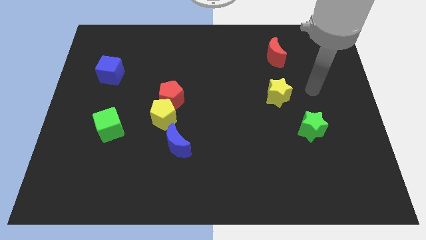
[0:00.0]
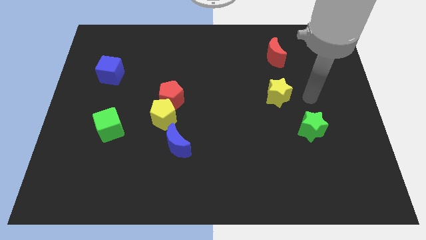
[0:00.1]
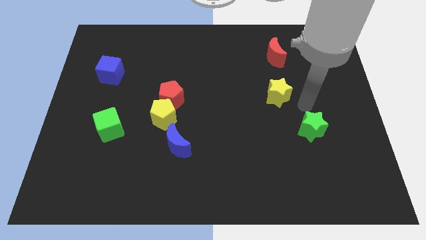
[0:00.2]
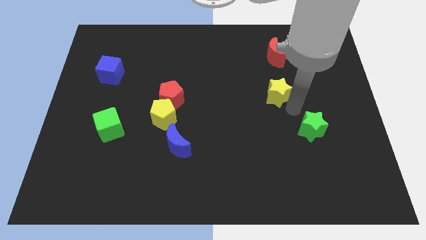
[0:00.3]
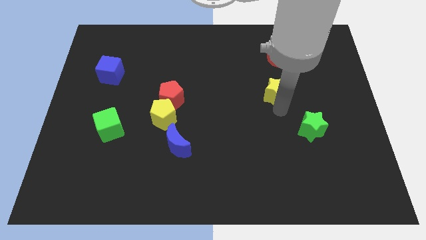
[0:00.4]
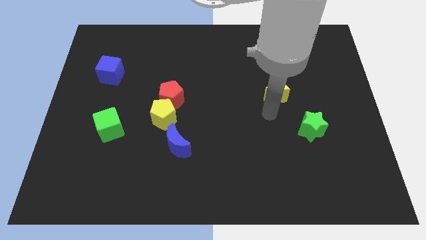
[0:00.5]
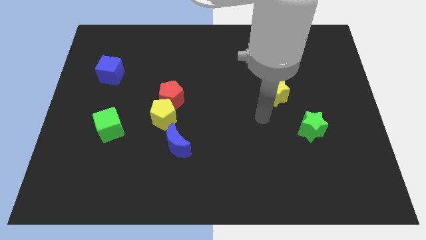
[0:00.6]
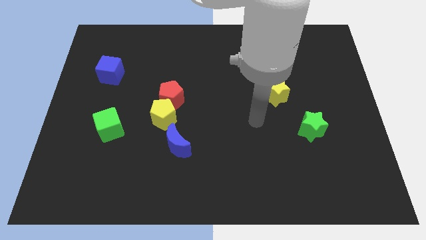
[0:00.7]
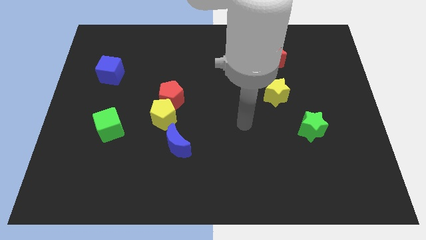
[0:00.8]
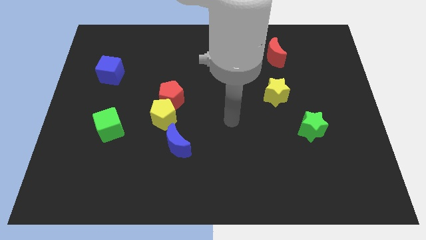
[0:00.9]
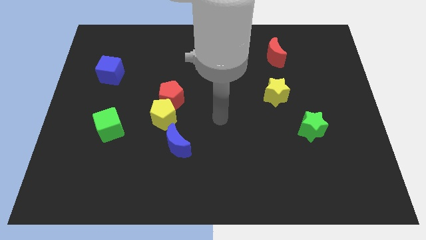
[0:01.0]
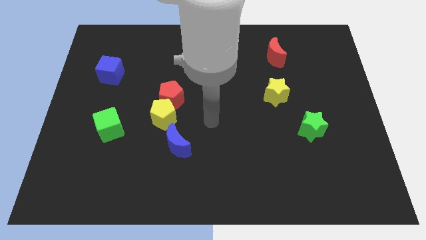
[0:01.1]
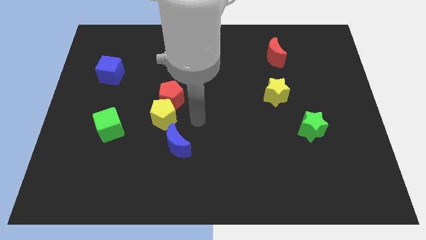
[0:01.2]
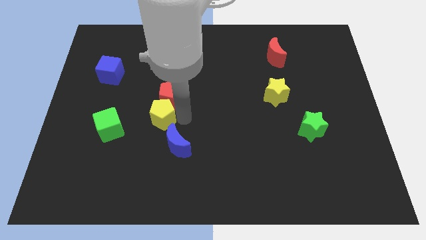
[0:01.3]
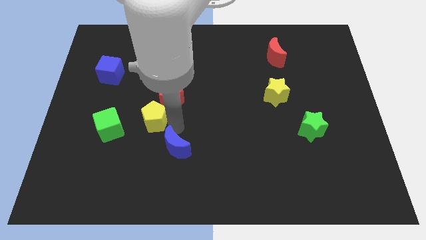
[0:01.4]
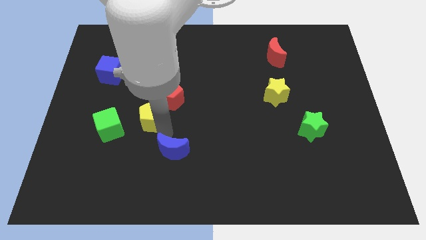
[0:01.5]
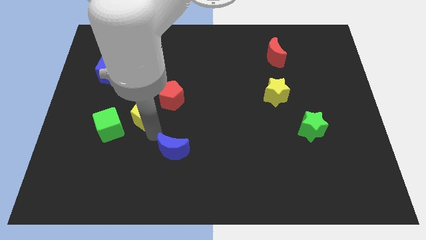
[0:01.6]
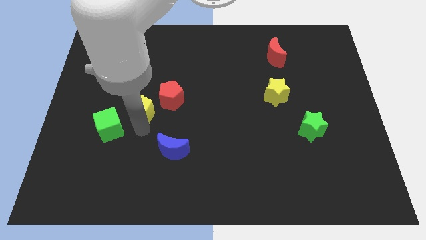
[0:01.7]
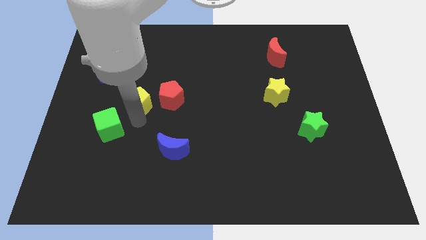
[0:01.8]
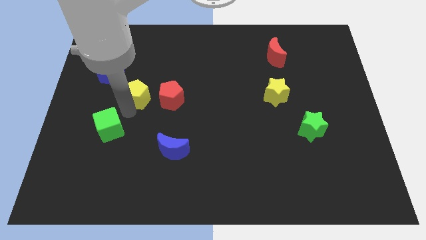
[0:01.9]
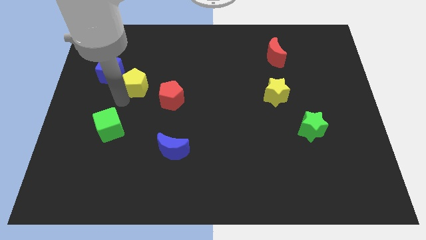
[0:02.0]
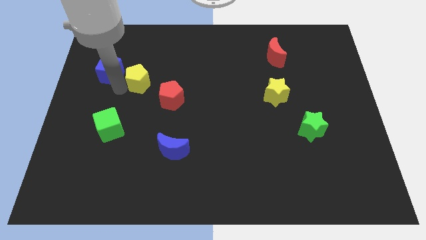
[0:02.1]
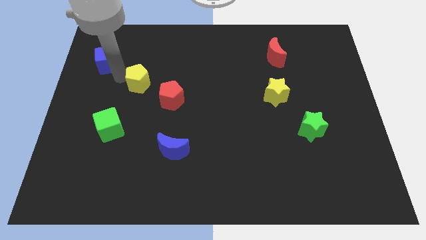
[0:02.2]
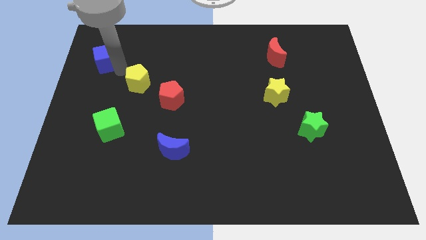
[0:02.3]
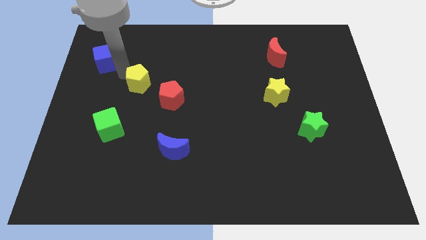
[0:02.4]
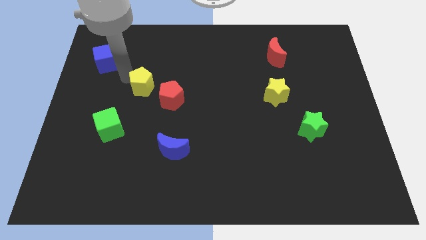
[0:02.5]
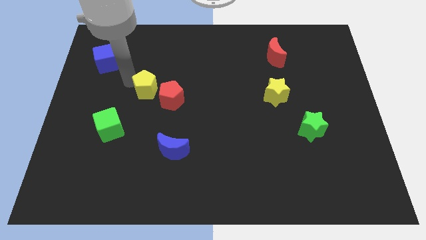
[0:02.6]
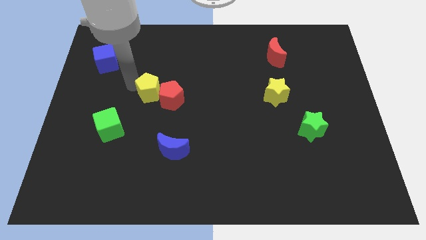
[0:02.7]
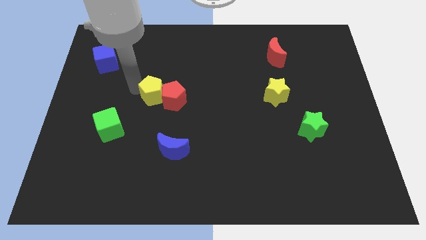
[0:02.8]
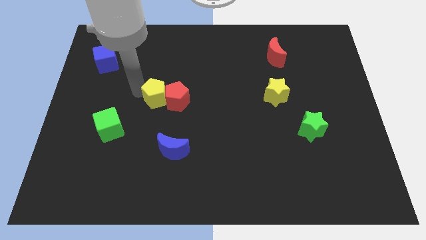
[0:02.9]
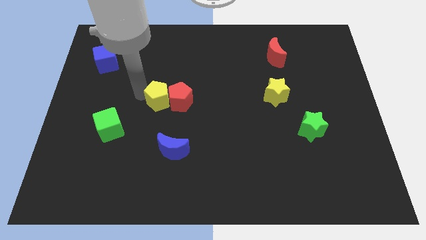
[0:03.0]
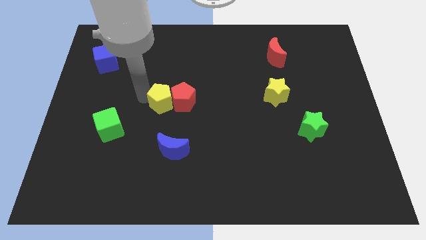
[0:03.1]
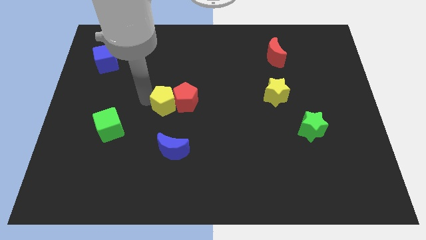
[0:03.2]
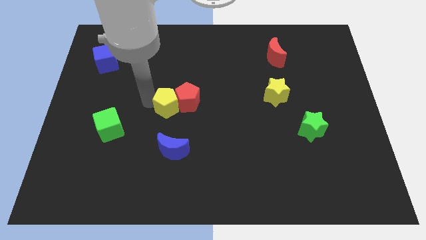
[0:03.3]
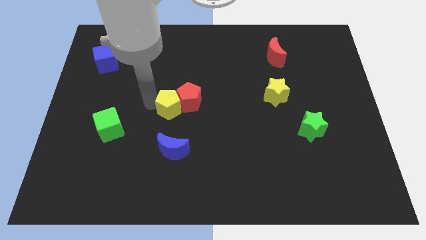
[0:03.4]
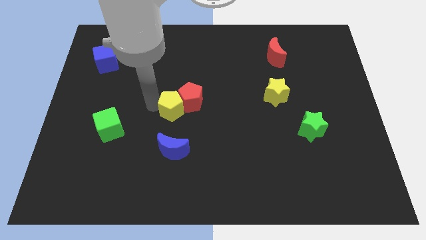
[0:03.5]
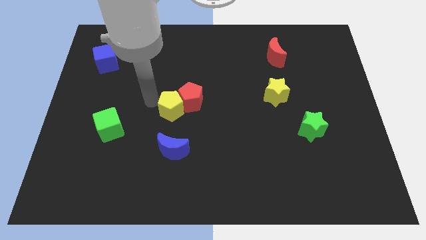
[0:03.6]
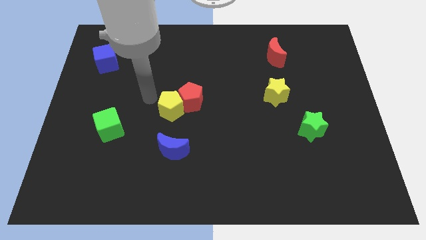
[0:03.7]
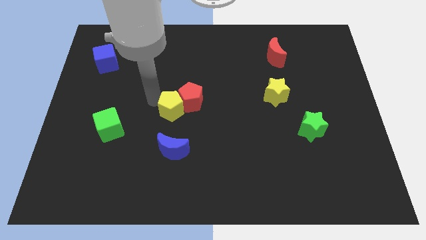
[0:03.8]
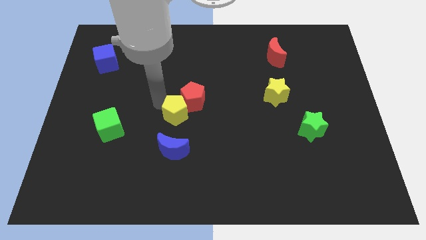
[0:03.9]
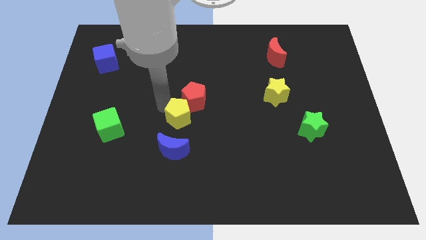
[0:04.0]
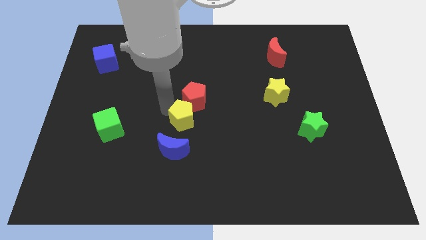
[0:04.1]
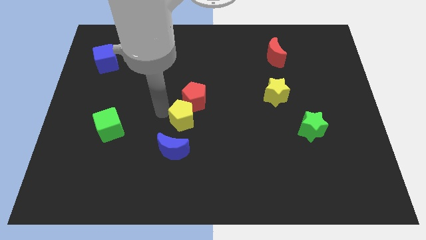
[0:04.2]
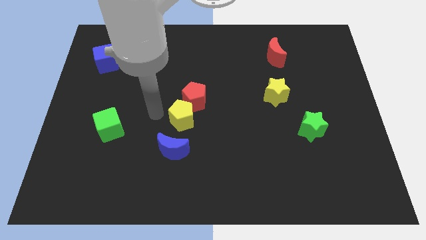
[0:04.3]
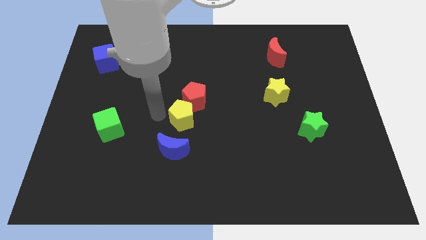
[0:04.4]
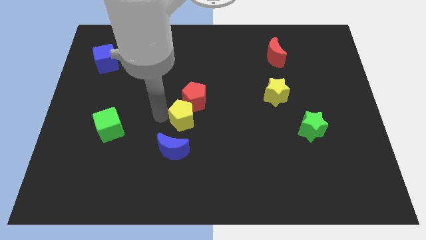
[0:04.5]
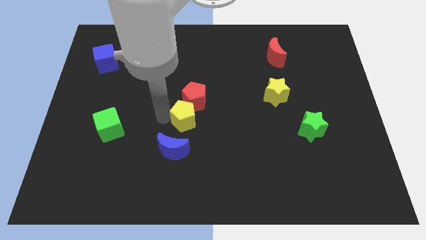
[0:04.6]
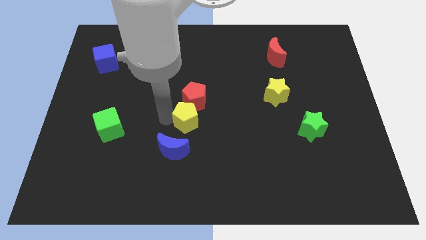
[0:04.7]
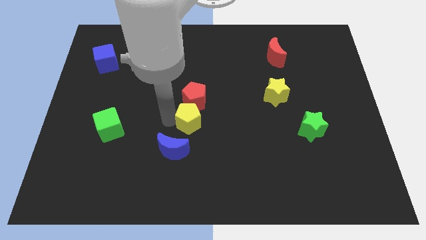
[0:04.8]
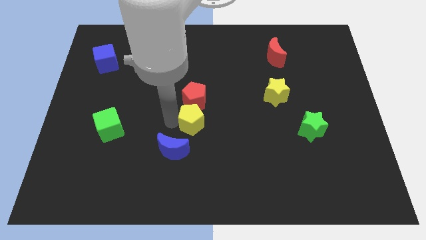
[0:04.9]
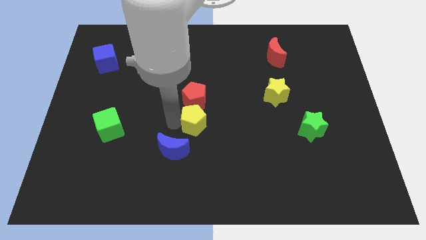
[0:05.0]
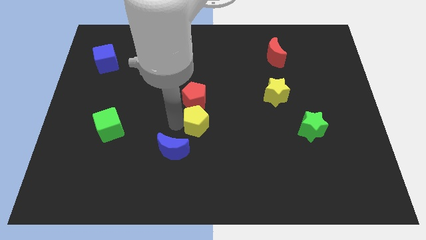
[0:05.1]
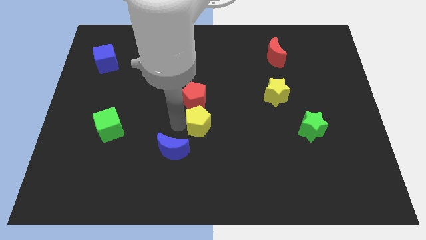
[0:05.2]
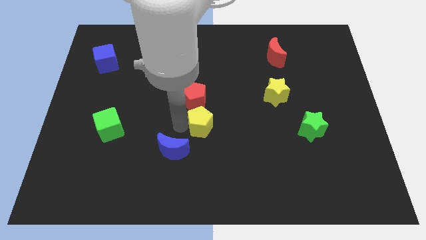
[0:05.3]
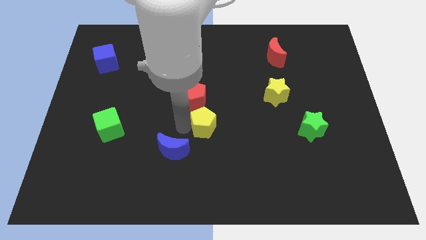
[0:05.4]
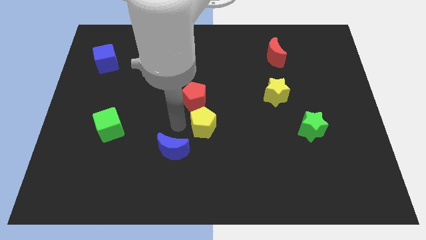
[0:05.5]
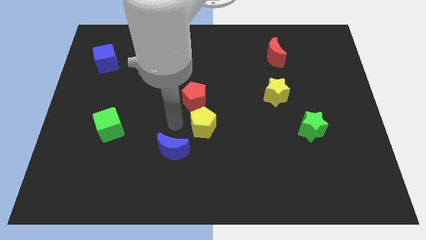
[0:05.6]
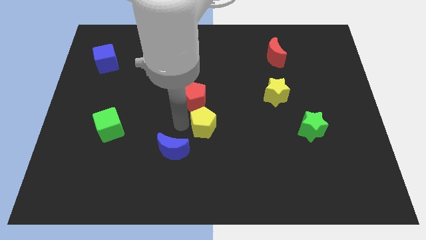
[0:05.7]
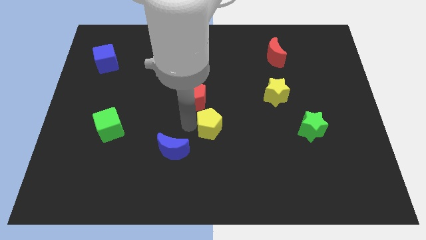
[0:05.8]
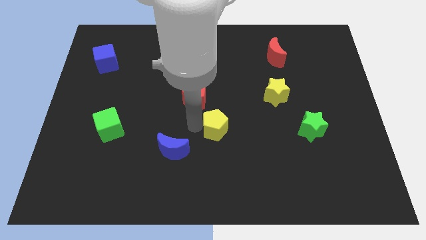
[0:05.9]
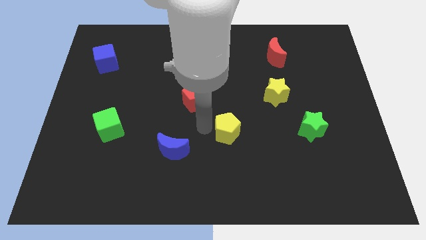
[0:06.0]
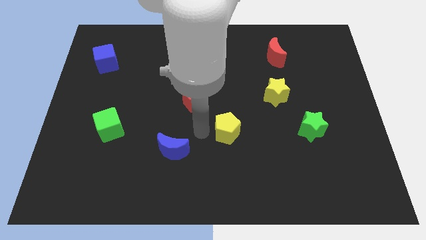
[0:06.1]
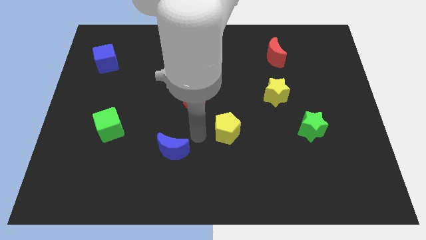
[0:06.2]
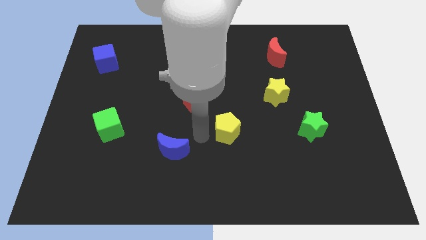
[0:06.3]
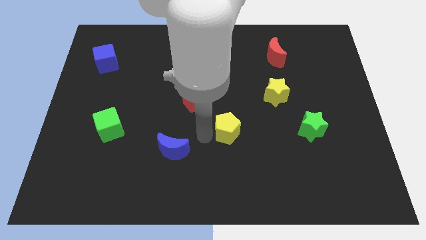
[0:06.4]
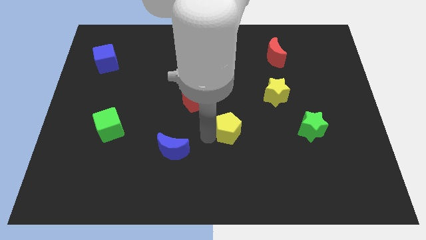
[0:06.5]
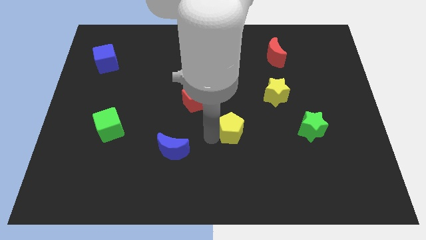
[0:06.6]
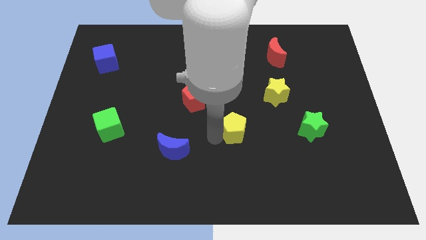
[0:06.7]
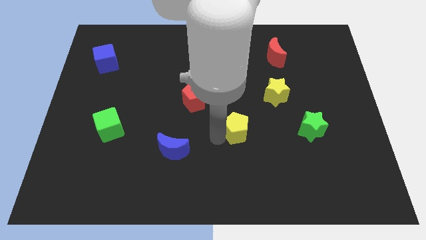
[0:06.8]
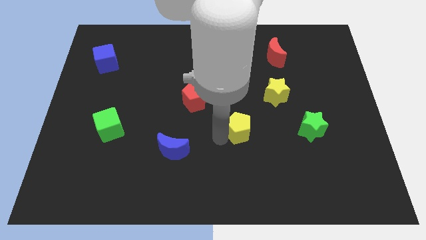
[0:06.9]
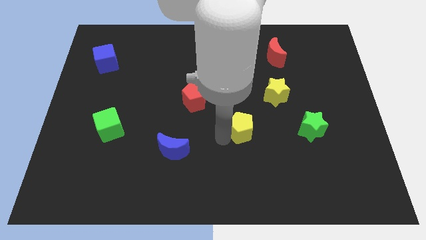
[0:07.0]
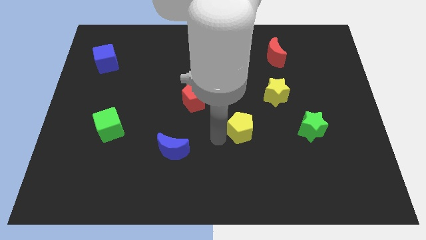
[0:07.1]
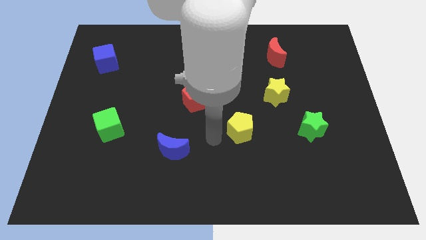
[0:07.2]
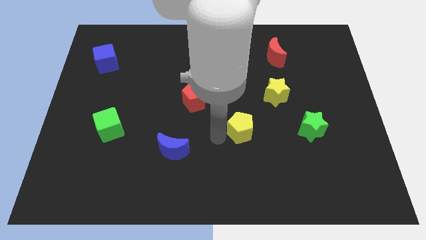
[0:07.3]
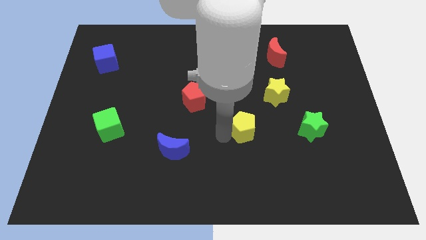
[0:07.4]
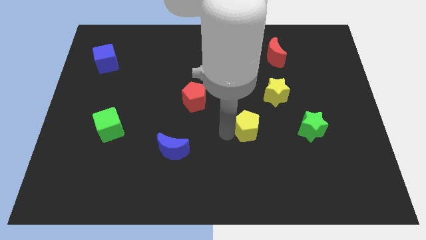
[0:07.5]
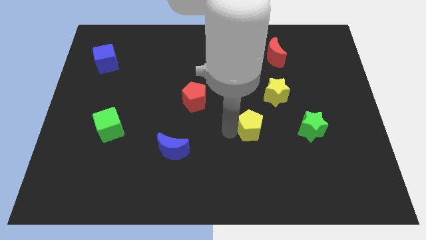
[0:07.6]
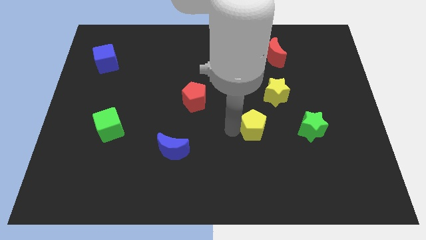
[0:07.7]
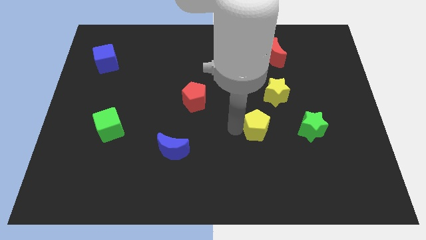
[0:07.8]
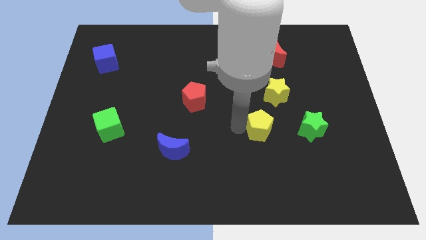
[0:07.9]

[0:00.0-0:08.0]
put the yellow pentagon to the bottom of the yellow star
